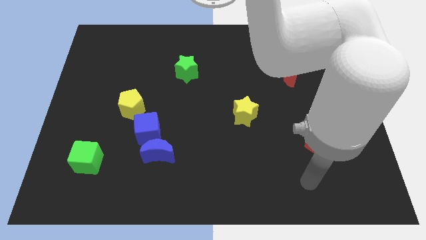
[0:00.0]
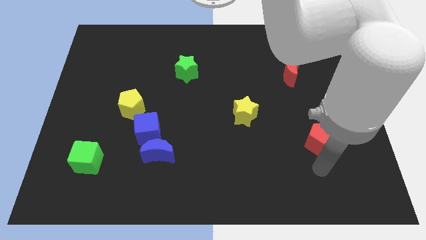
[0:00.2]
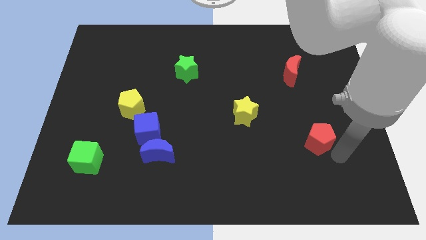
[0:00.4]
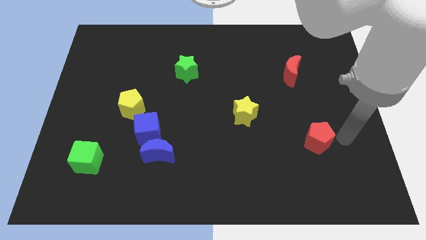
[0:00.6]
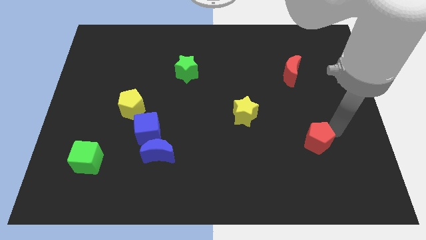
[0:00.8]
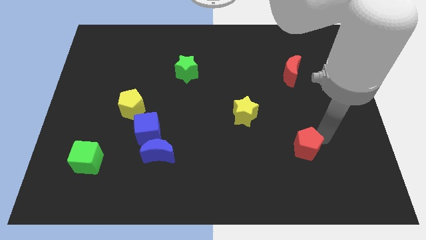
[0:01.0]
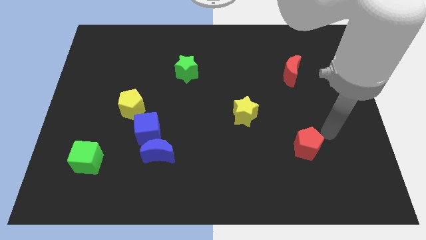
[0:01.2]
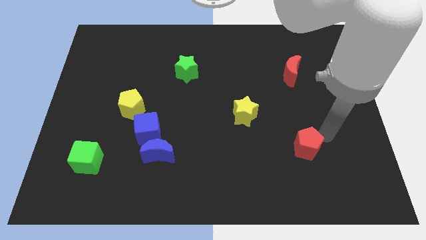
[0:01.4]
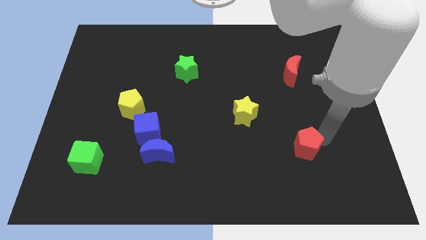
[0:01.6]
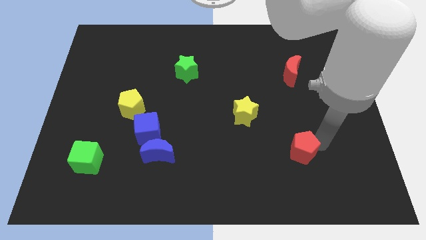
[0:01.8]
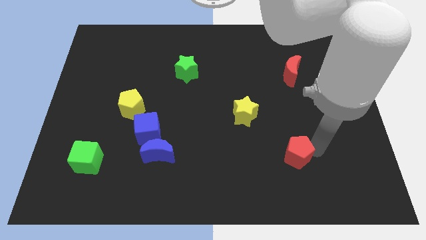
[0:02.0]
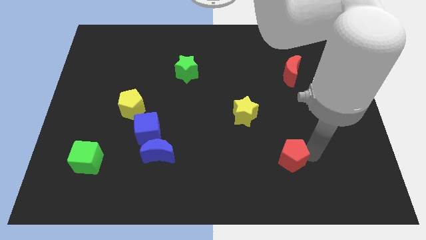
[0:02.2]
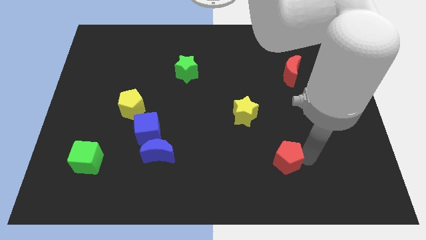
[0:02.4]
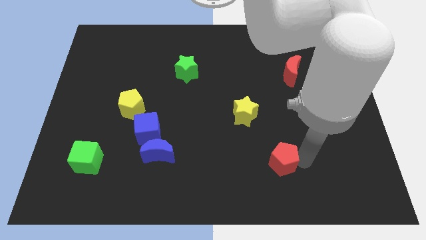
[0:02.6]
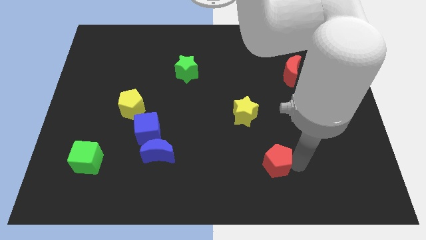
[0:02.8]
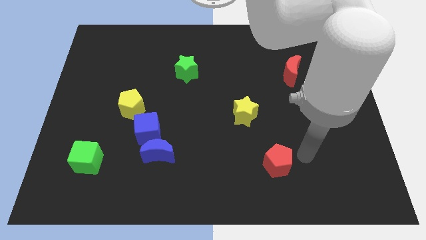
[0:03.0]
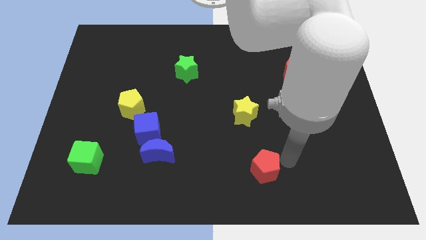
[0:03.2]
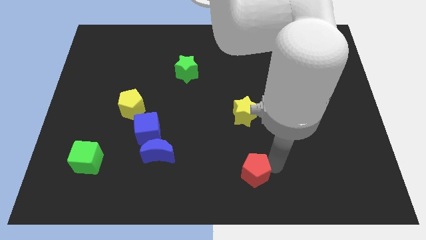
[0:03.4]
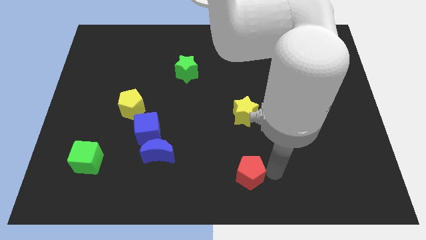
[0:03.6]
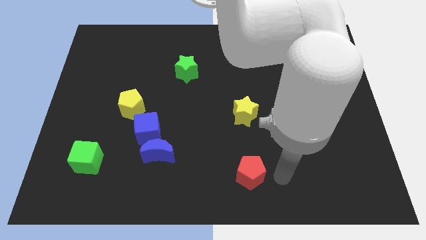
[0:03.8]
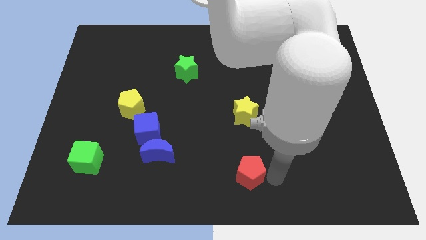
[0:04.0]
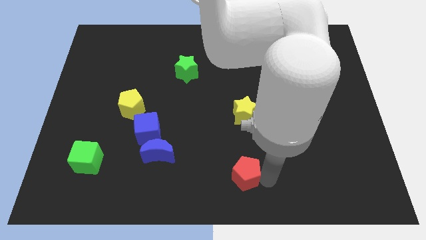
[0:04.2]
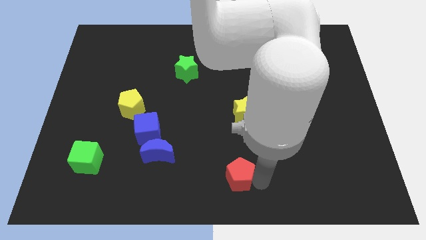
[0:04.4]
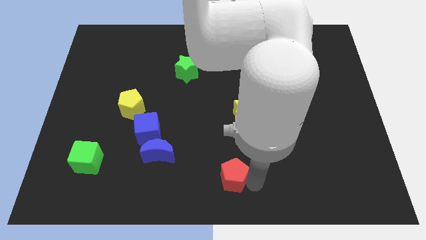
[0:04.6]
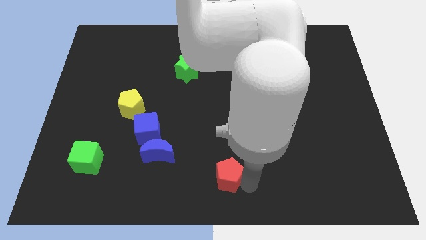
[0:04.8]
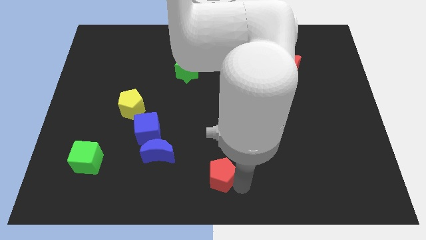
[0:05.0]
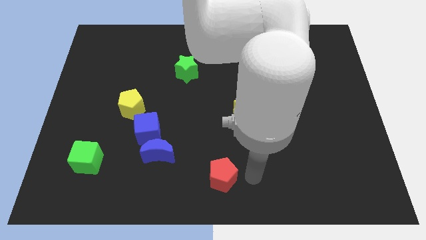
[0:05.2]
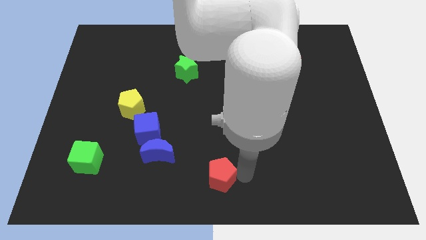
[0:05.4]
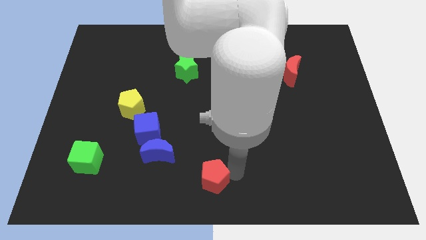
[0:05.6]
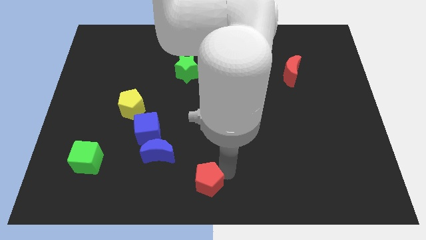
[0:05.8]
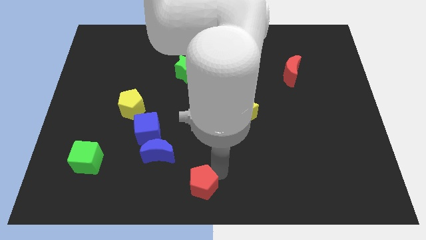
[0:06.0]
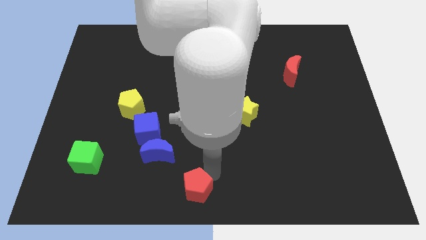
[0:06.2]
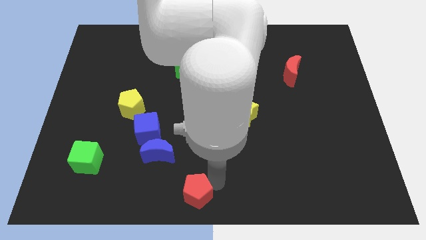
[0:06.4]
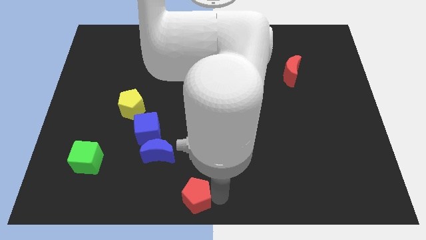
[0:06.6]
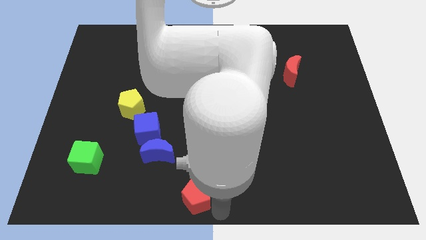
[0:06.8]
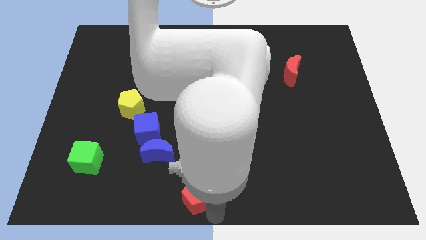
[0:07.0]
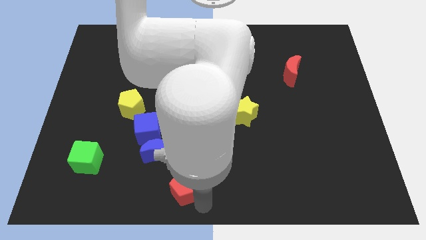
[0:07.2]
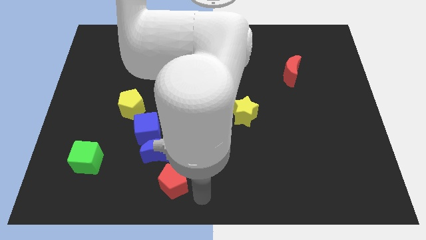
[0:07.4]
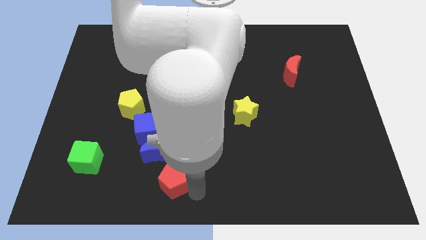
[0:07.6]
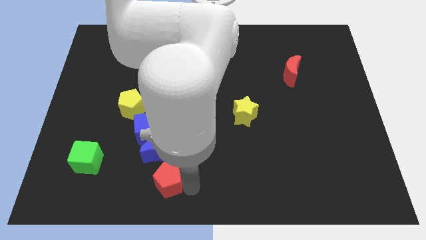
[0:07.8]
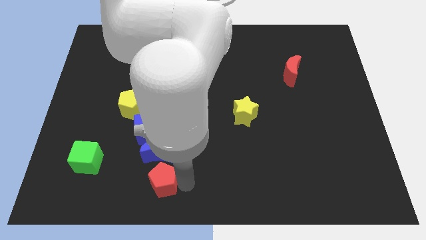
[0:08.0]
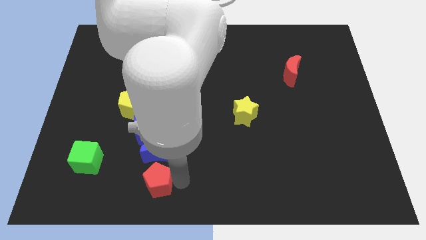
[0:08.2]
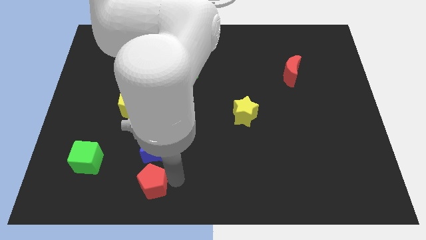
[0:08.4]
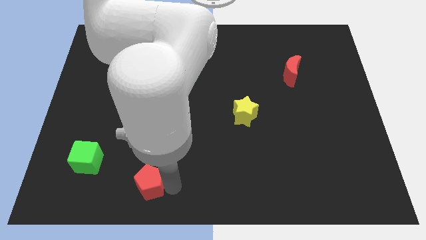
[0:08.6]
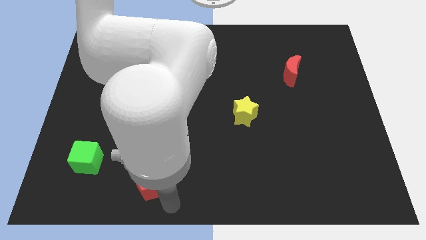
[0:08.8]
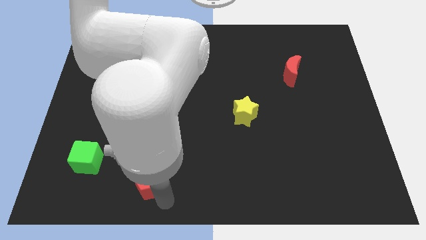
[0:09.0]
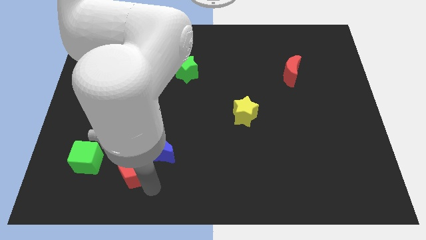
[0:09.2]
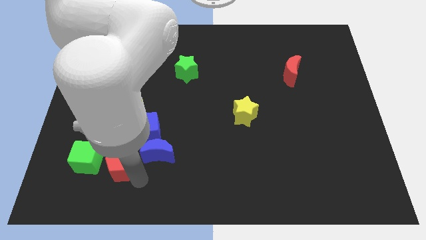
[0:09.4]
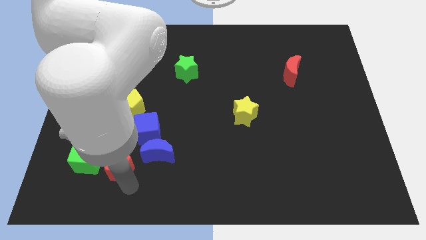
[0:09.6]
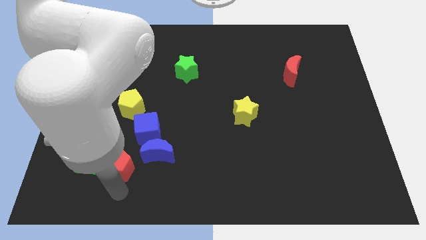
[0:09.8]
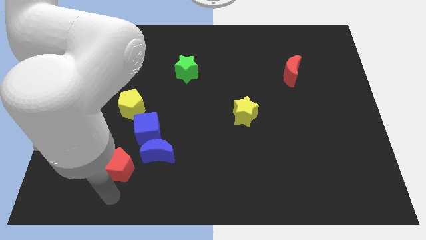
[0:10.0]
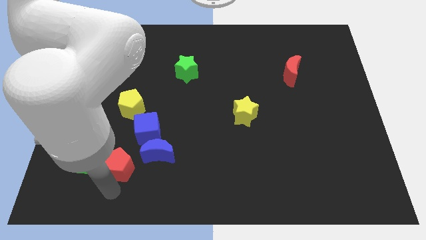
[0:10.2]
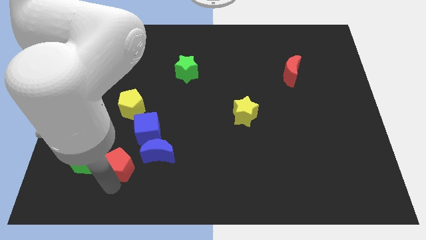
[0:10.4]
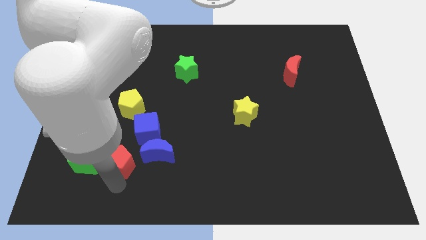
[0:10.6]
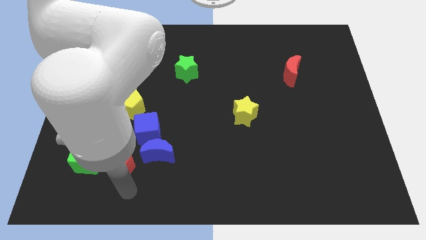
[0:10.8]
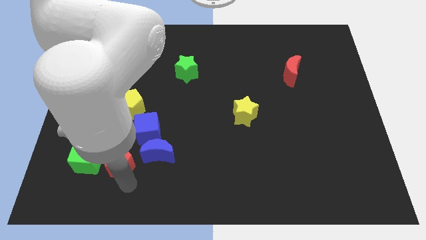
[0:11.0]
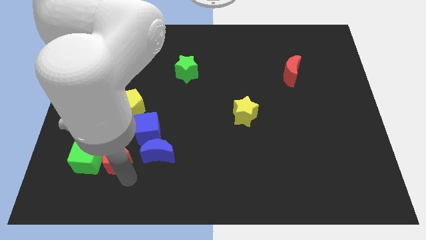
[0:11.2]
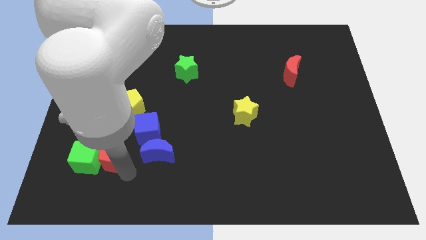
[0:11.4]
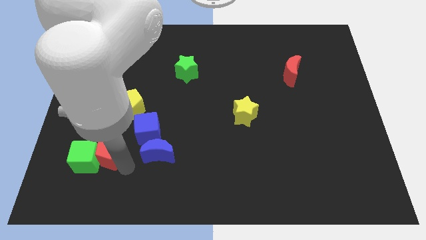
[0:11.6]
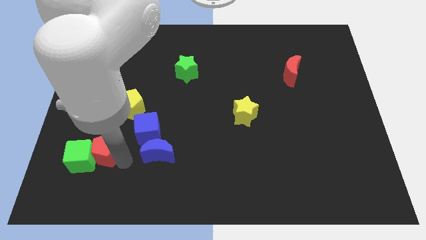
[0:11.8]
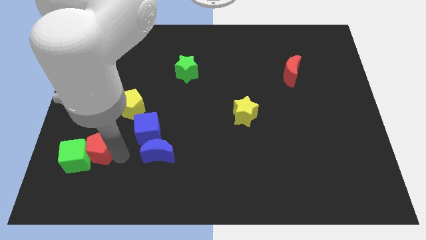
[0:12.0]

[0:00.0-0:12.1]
put the red pentagon to the left side of the blue cube

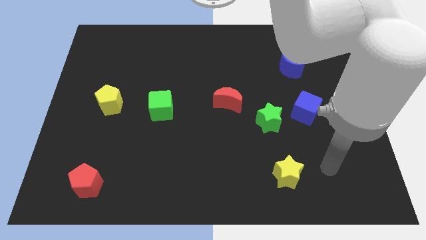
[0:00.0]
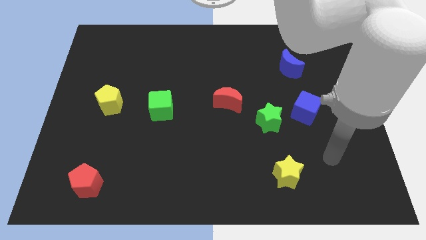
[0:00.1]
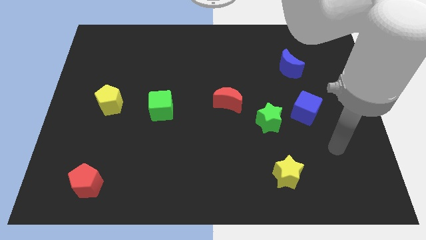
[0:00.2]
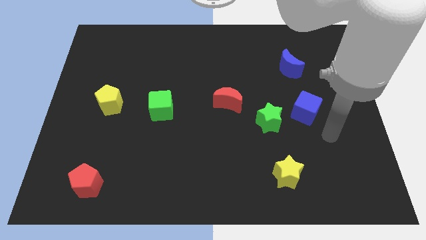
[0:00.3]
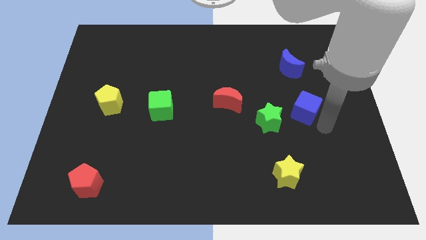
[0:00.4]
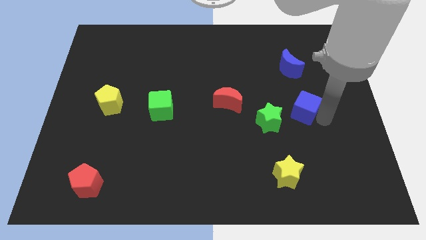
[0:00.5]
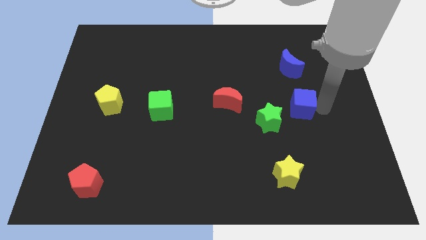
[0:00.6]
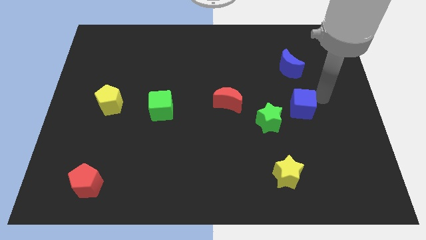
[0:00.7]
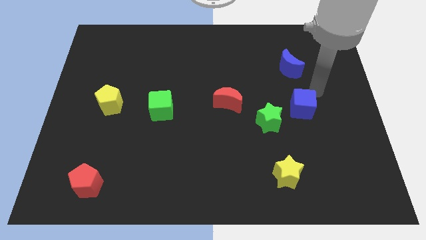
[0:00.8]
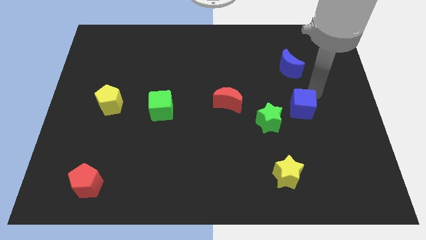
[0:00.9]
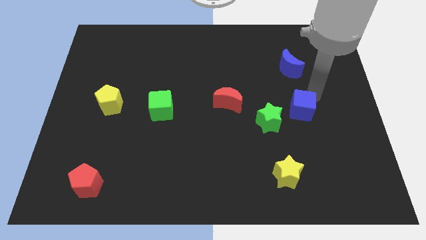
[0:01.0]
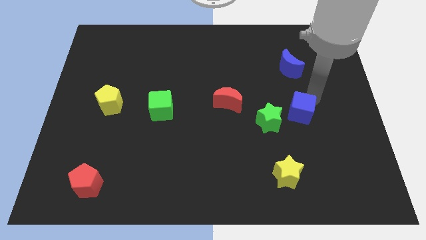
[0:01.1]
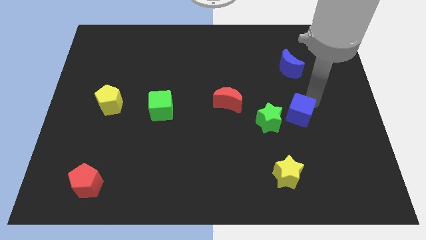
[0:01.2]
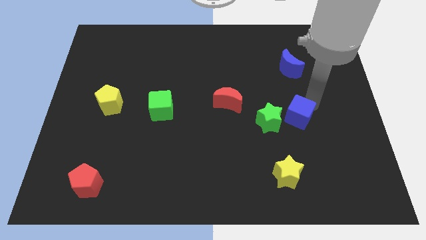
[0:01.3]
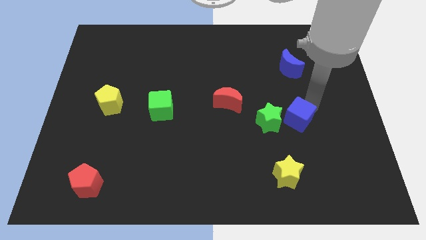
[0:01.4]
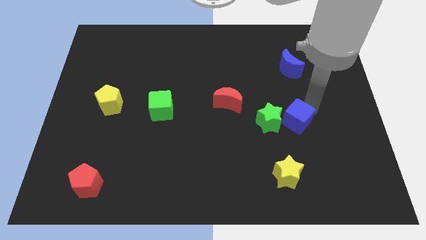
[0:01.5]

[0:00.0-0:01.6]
put the blue cube above the yellow star
